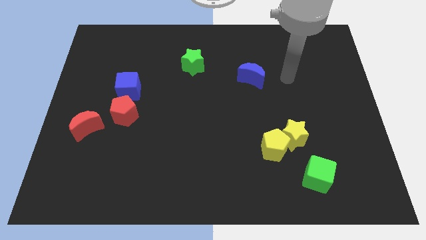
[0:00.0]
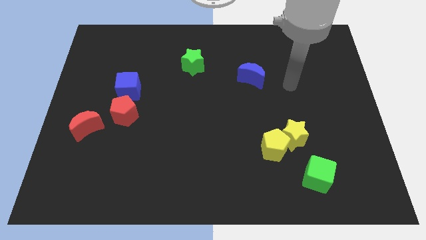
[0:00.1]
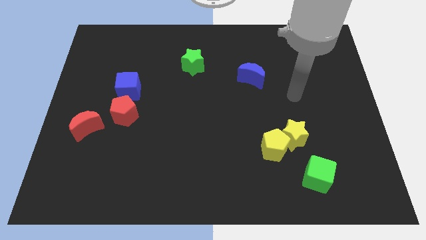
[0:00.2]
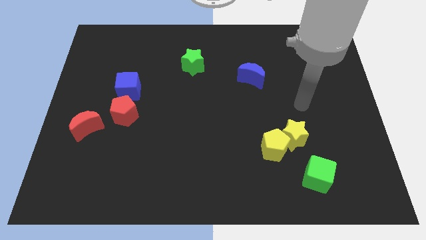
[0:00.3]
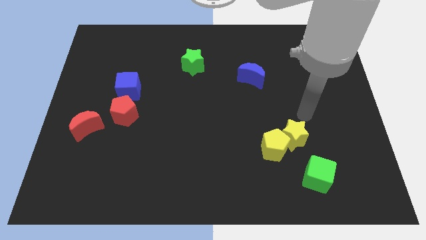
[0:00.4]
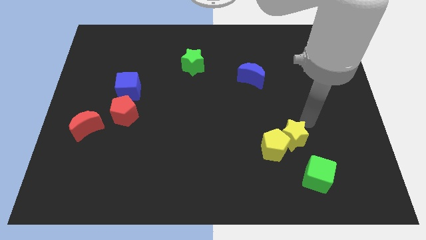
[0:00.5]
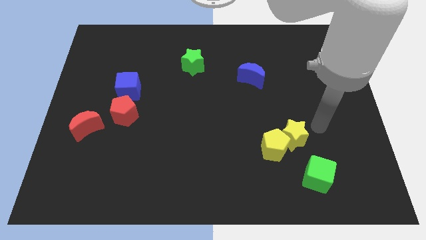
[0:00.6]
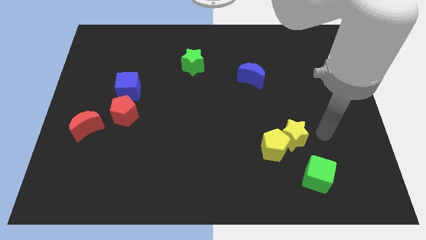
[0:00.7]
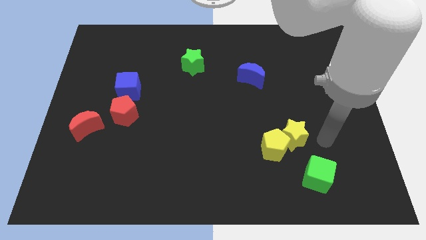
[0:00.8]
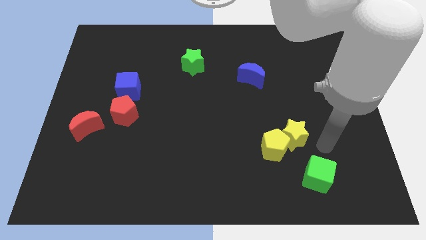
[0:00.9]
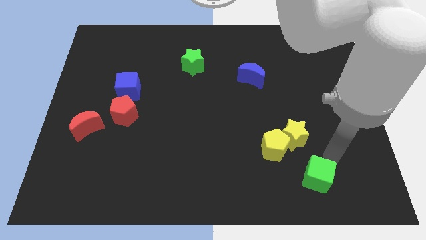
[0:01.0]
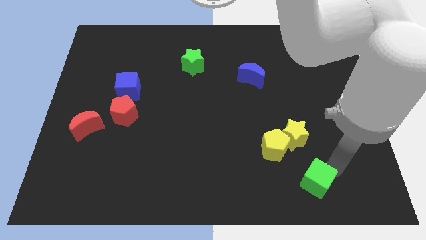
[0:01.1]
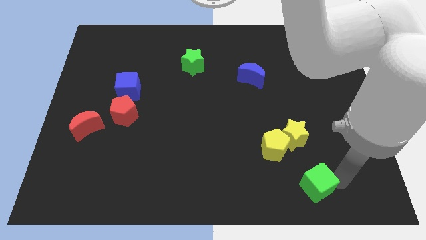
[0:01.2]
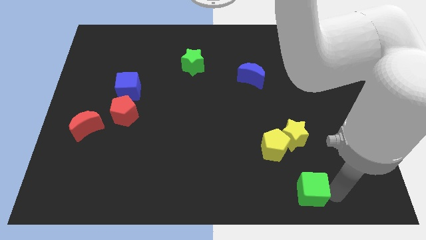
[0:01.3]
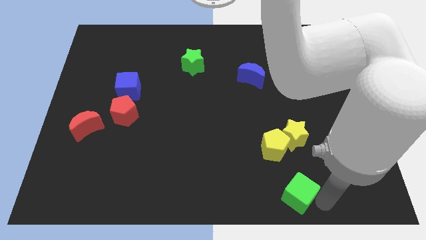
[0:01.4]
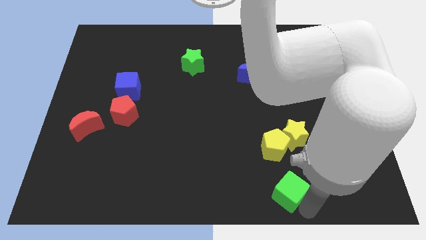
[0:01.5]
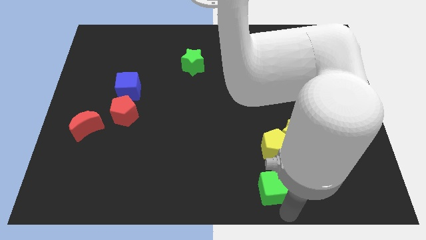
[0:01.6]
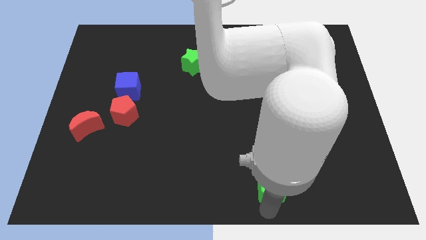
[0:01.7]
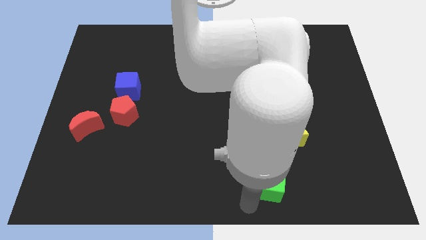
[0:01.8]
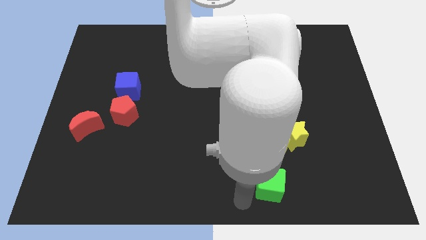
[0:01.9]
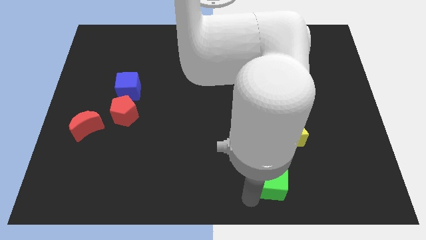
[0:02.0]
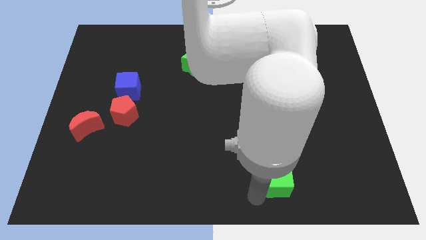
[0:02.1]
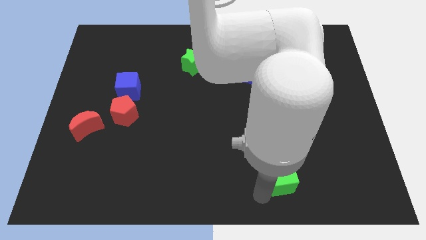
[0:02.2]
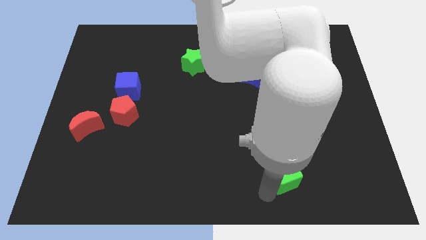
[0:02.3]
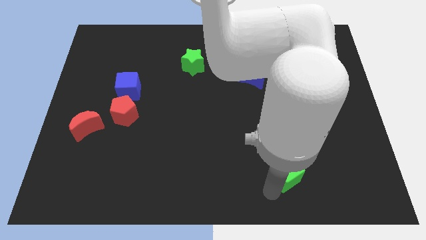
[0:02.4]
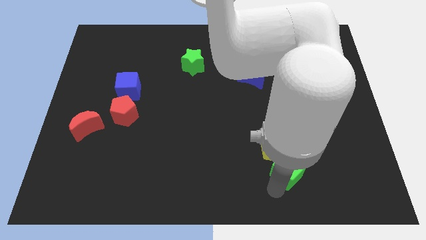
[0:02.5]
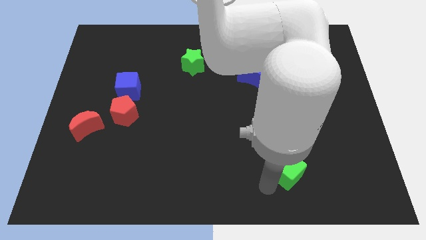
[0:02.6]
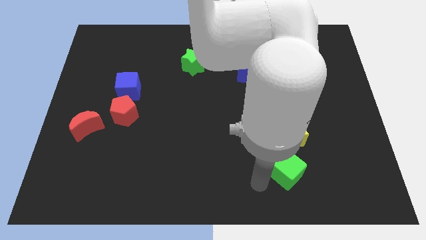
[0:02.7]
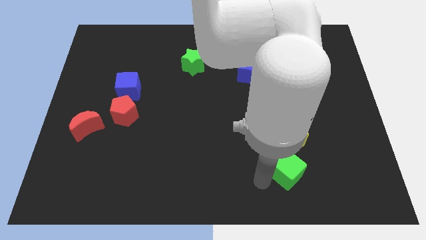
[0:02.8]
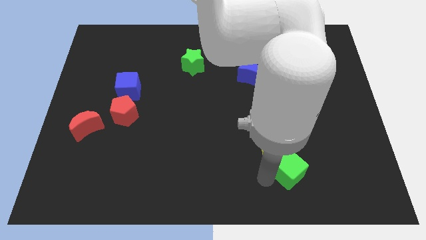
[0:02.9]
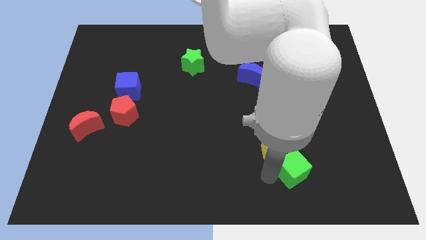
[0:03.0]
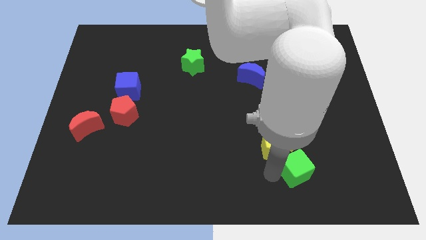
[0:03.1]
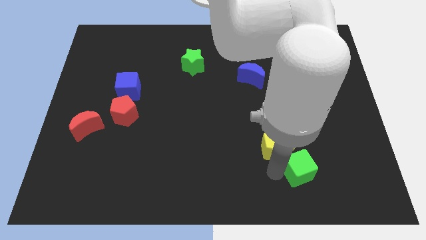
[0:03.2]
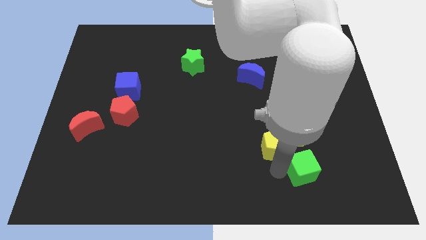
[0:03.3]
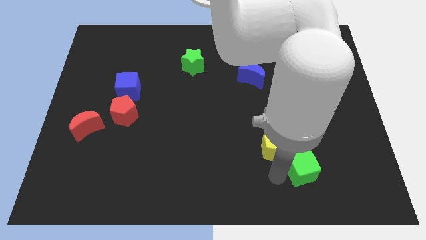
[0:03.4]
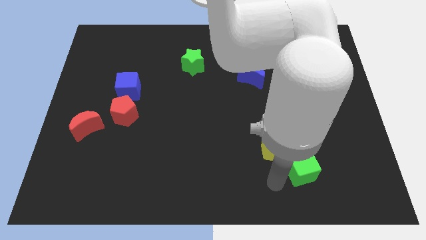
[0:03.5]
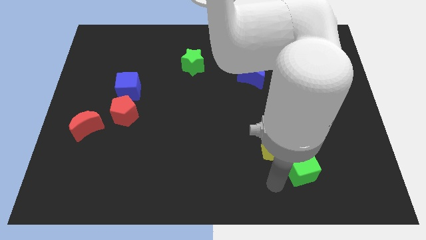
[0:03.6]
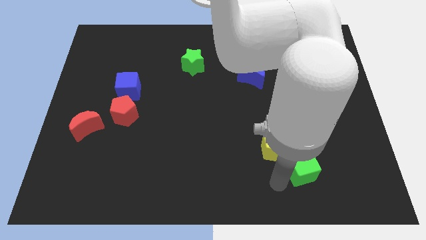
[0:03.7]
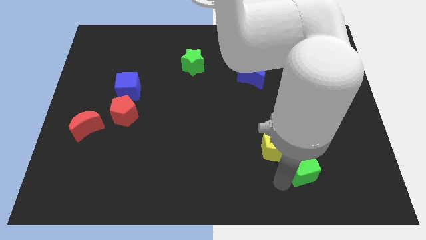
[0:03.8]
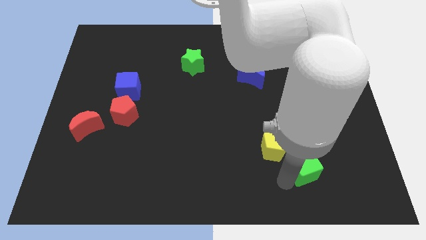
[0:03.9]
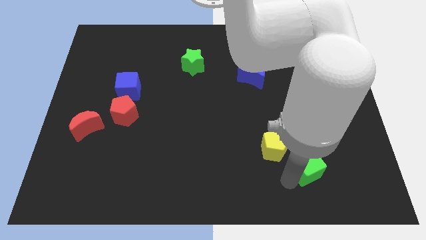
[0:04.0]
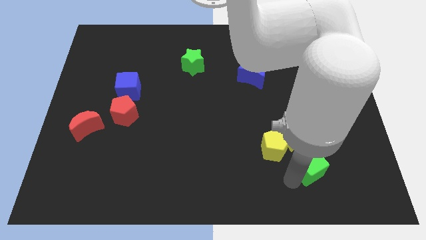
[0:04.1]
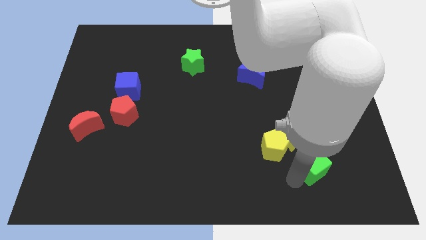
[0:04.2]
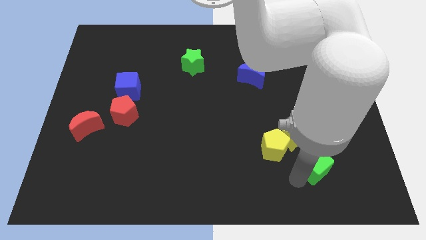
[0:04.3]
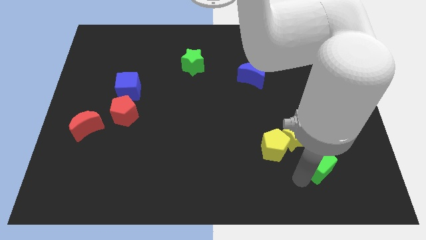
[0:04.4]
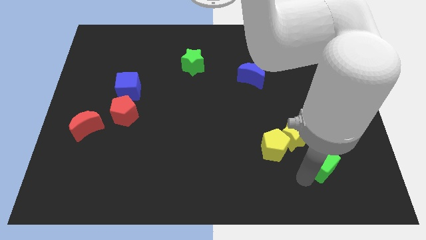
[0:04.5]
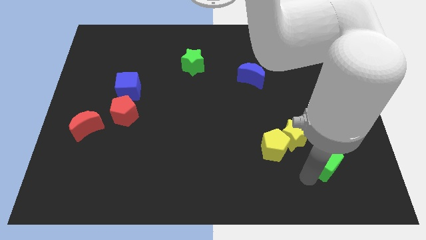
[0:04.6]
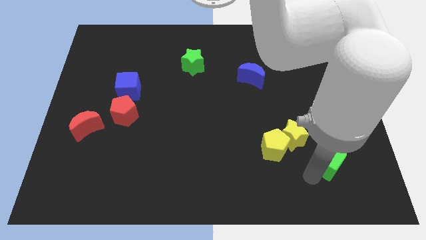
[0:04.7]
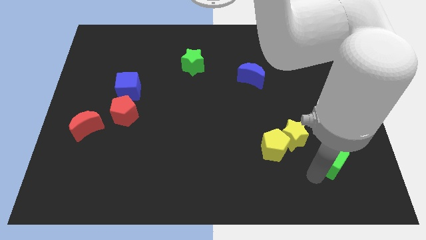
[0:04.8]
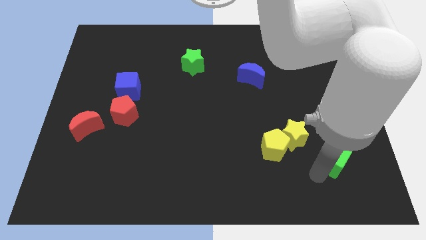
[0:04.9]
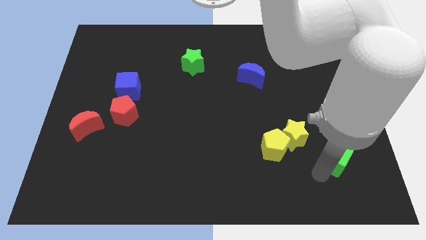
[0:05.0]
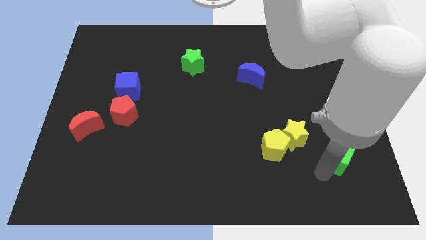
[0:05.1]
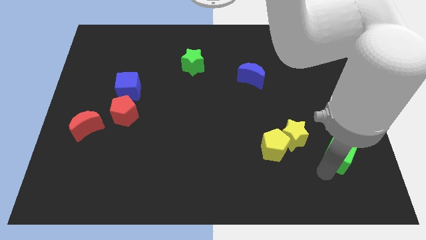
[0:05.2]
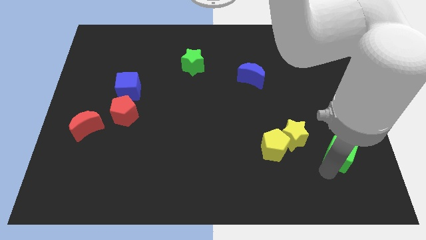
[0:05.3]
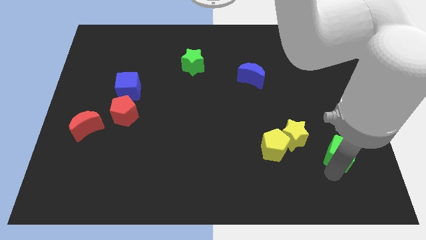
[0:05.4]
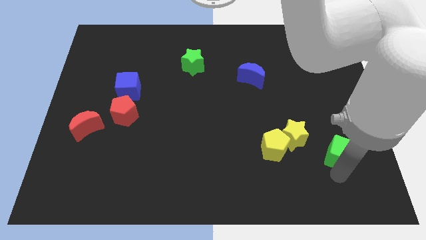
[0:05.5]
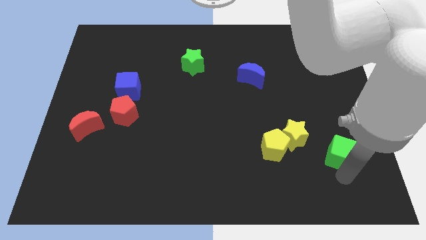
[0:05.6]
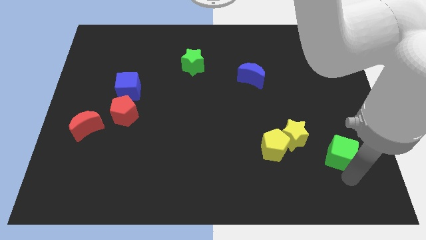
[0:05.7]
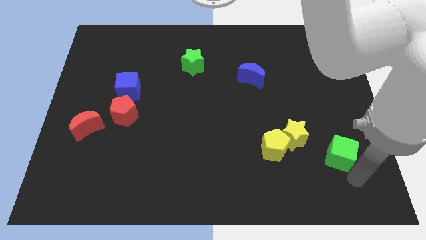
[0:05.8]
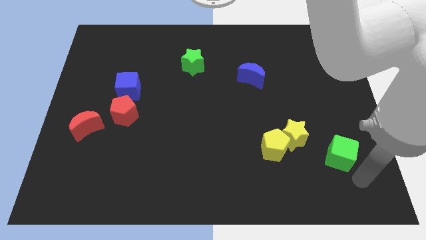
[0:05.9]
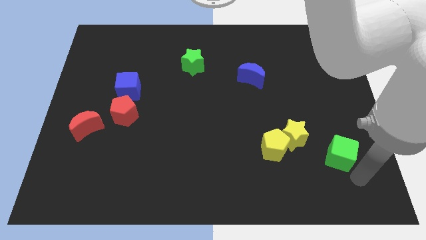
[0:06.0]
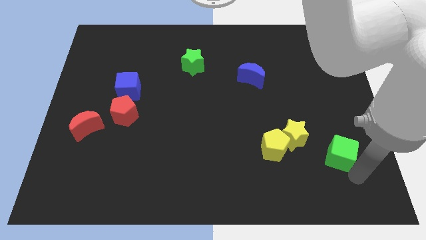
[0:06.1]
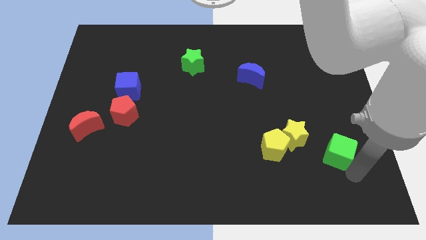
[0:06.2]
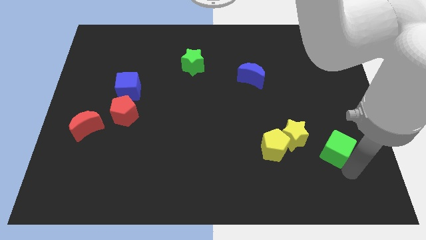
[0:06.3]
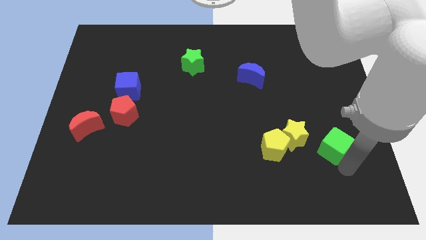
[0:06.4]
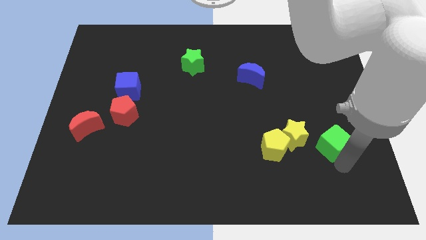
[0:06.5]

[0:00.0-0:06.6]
move the green cube somewhat up
